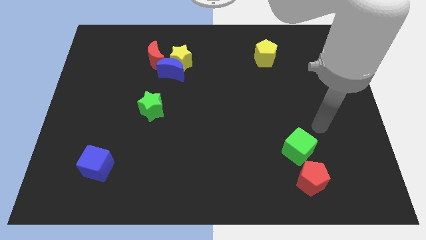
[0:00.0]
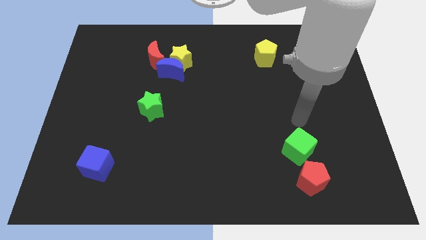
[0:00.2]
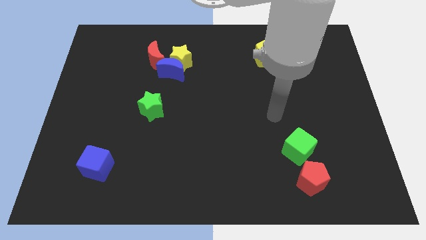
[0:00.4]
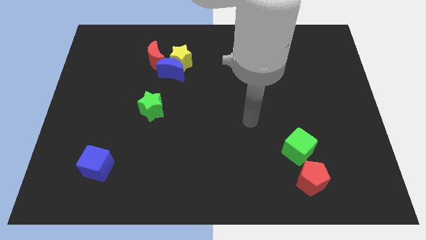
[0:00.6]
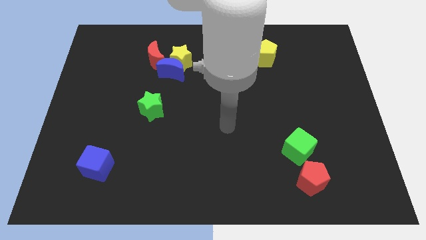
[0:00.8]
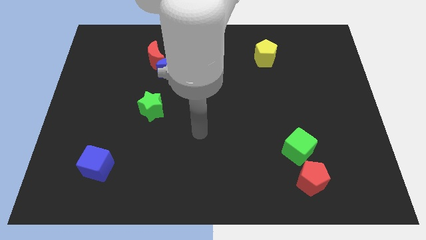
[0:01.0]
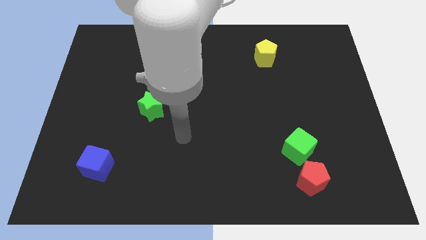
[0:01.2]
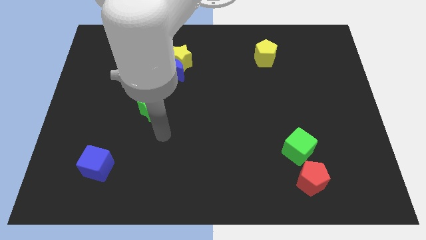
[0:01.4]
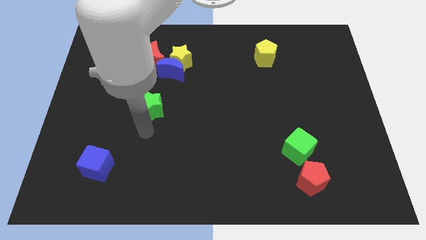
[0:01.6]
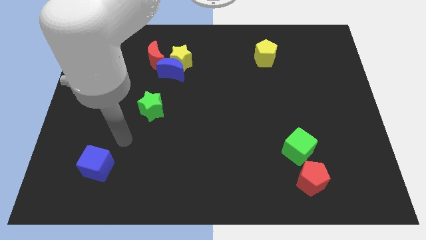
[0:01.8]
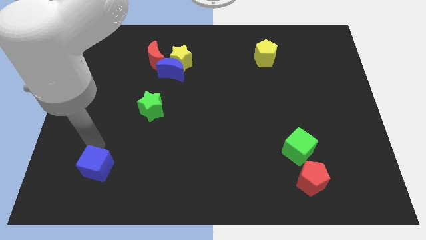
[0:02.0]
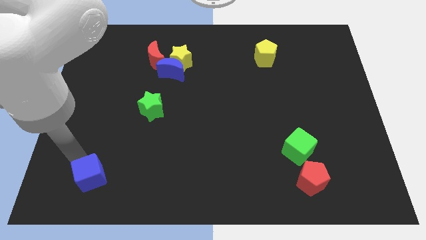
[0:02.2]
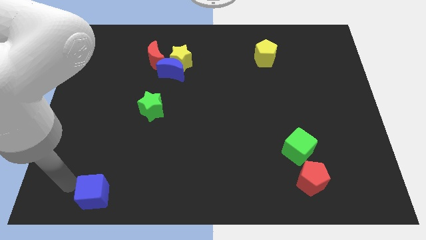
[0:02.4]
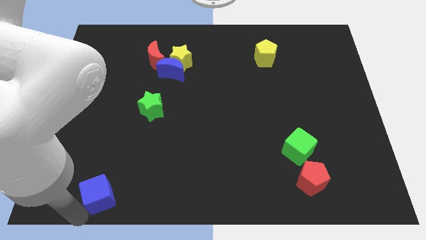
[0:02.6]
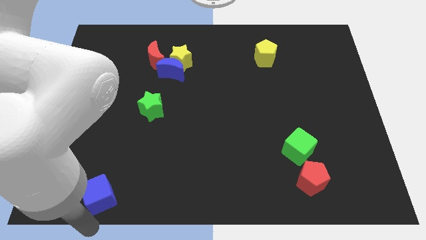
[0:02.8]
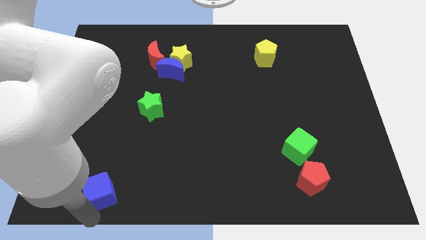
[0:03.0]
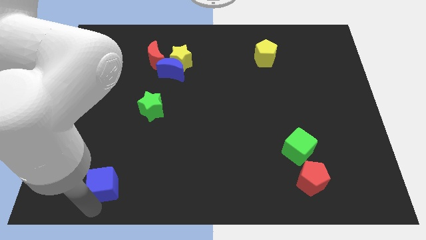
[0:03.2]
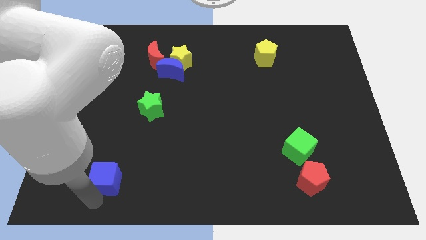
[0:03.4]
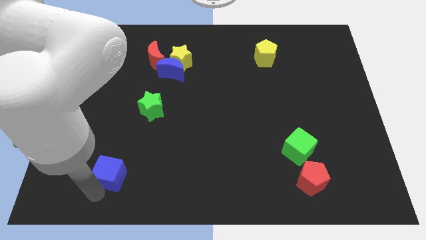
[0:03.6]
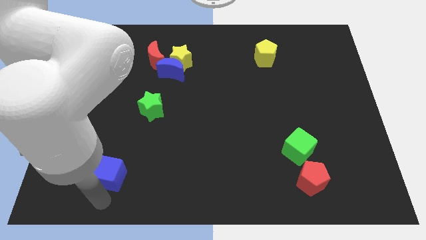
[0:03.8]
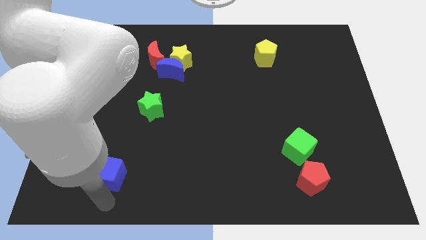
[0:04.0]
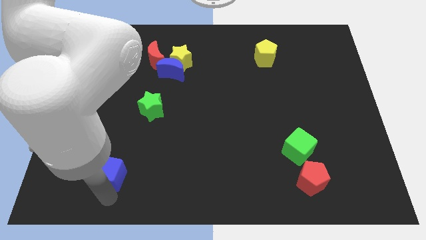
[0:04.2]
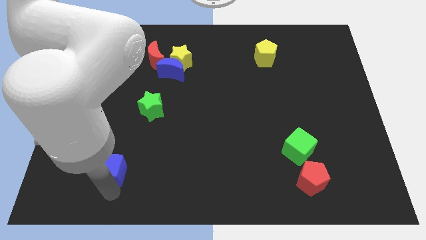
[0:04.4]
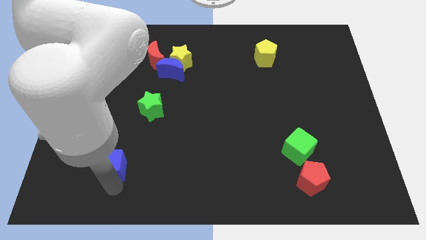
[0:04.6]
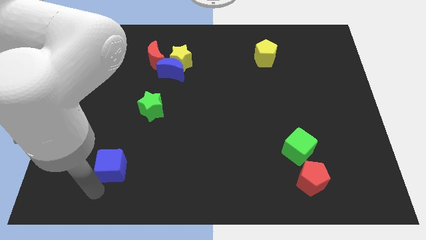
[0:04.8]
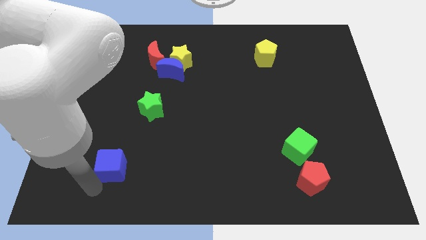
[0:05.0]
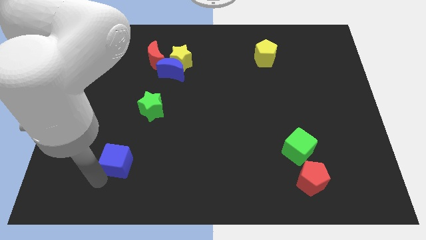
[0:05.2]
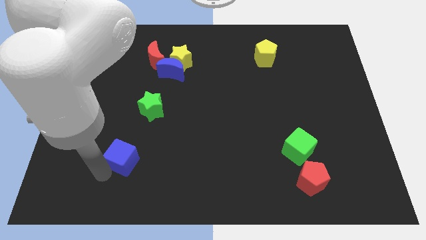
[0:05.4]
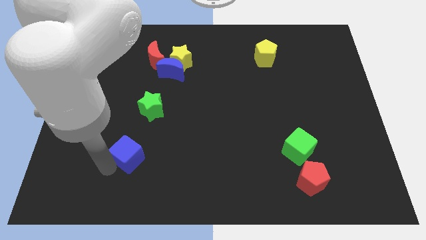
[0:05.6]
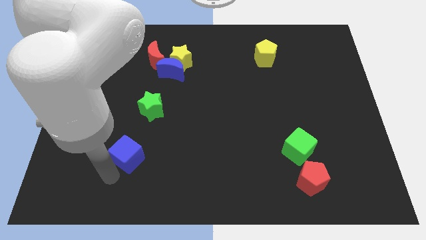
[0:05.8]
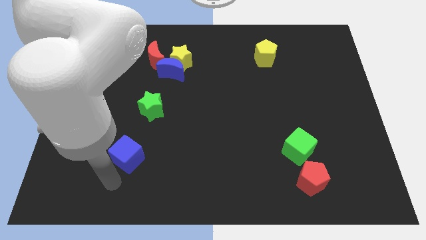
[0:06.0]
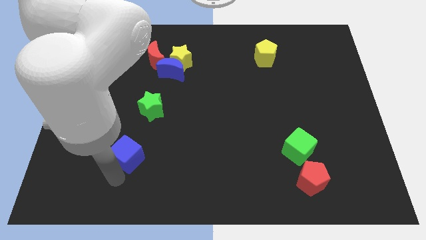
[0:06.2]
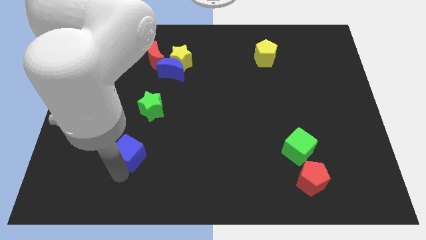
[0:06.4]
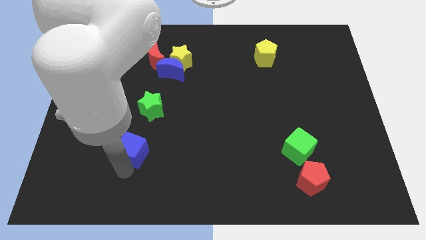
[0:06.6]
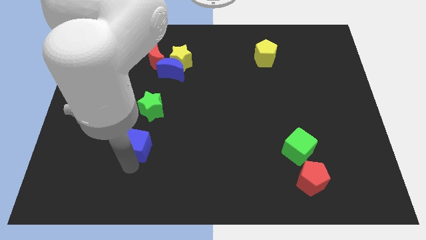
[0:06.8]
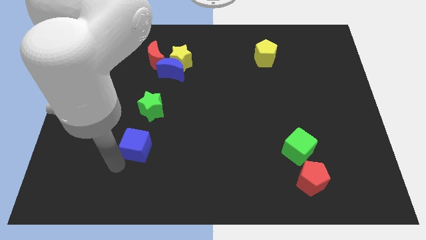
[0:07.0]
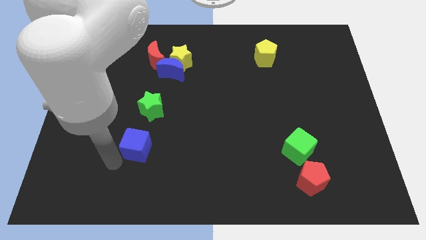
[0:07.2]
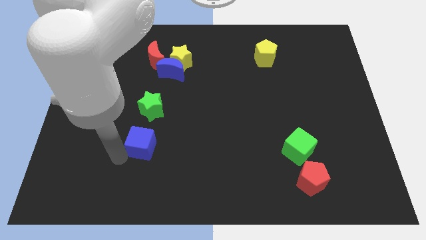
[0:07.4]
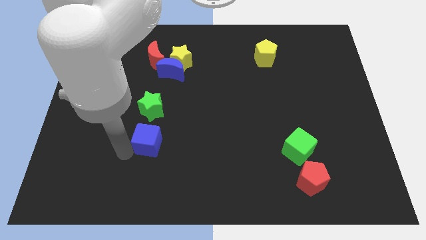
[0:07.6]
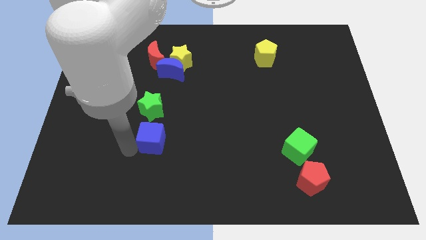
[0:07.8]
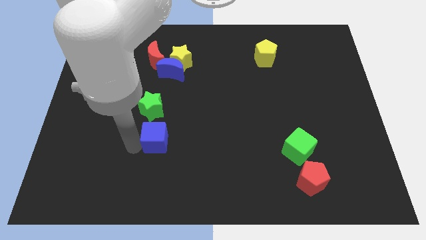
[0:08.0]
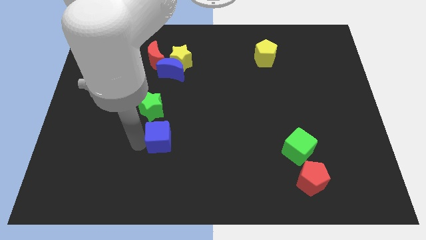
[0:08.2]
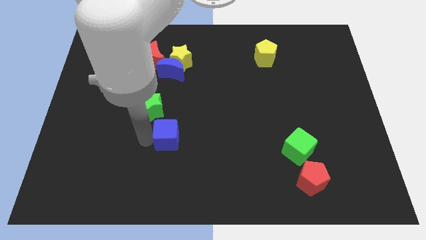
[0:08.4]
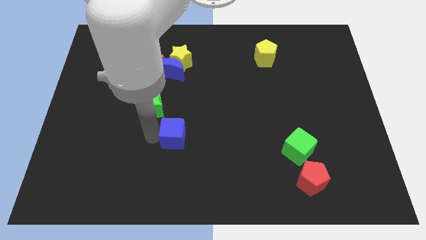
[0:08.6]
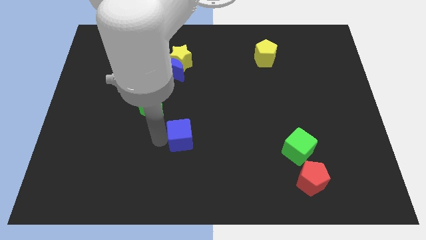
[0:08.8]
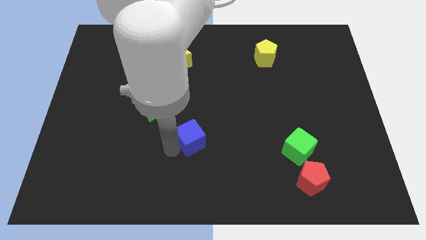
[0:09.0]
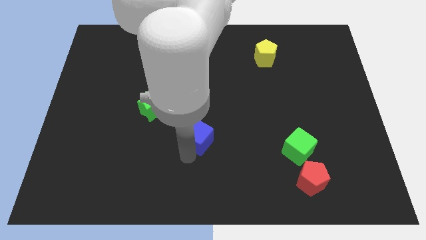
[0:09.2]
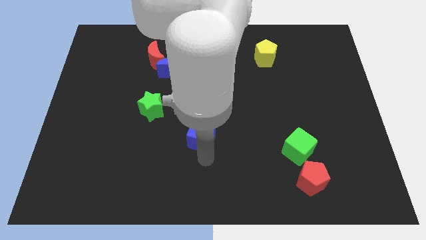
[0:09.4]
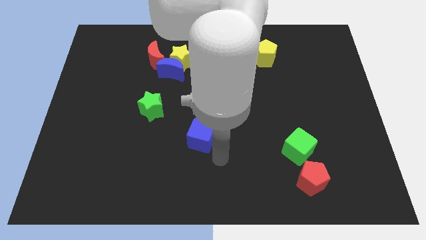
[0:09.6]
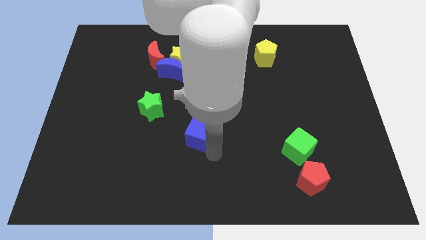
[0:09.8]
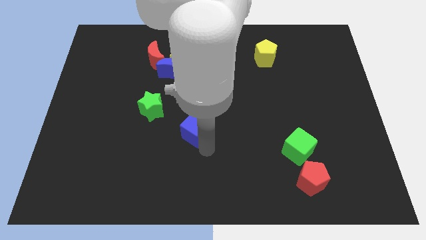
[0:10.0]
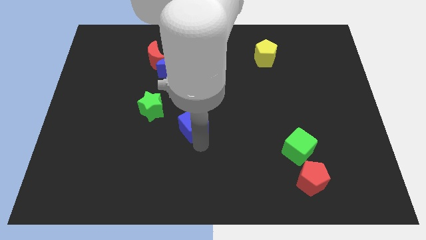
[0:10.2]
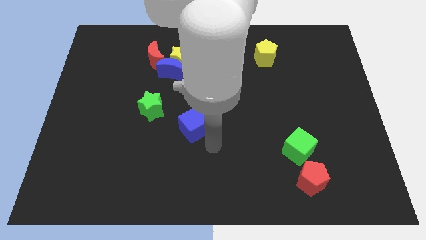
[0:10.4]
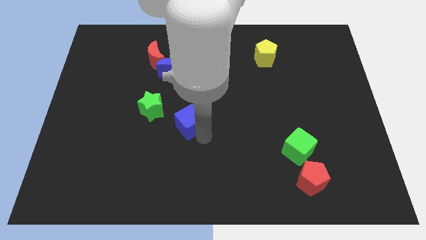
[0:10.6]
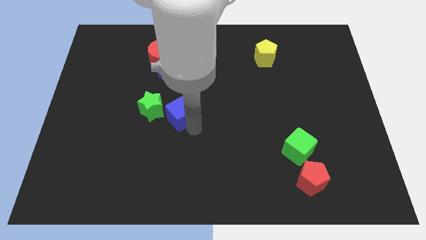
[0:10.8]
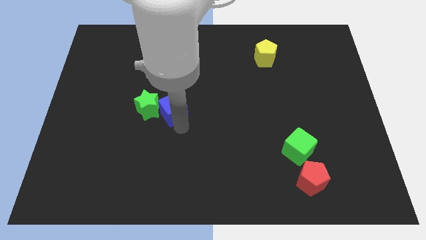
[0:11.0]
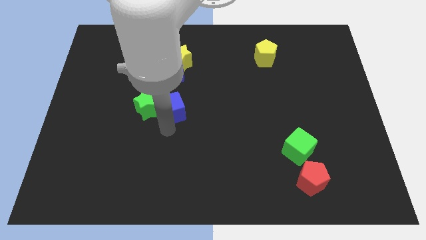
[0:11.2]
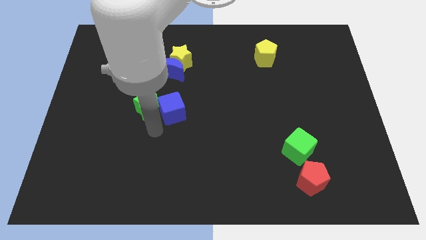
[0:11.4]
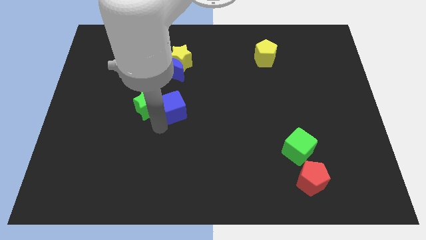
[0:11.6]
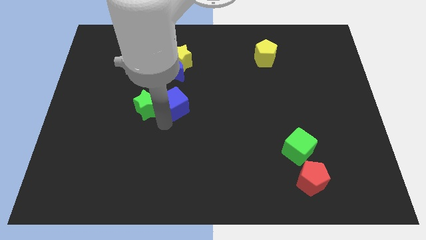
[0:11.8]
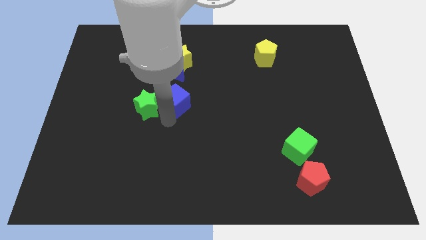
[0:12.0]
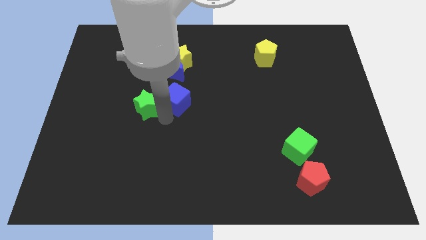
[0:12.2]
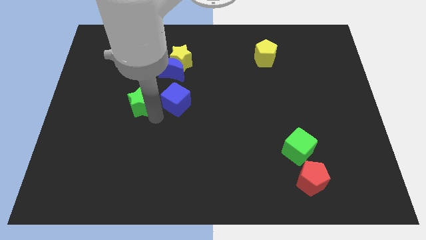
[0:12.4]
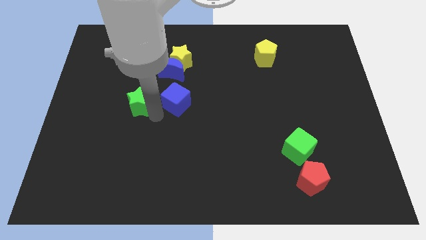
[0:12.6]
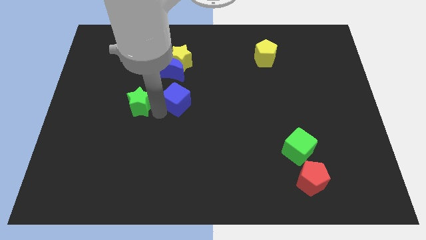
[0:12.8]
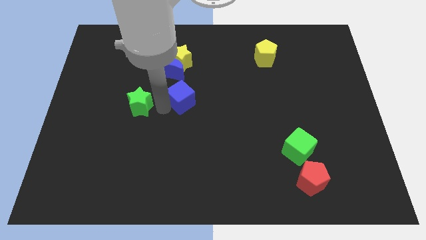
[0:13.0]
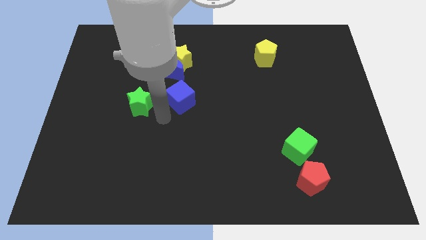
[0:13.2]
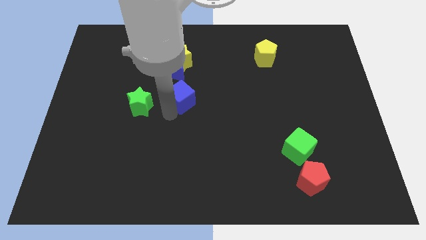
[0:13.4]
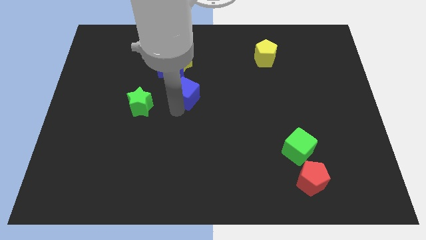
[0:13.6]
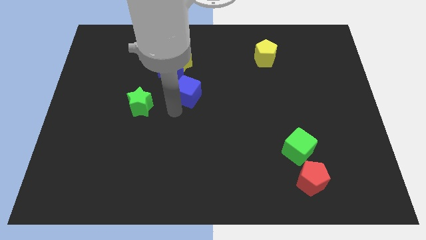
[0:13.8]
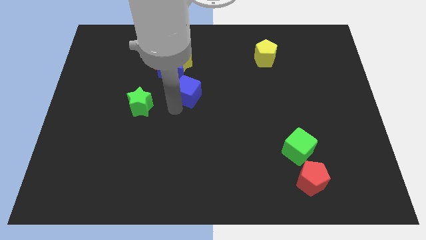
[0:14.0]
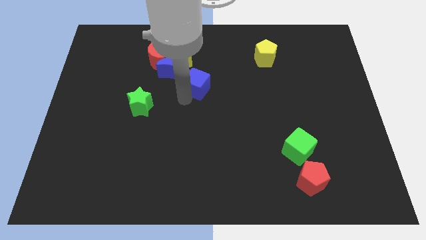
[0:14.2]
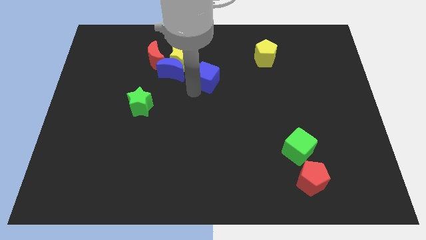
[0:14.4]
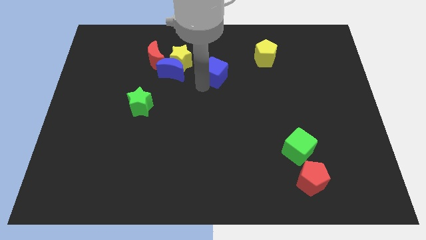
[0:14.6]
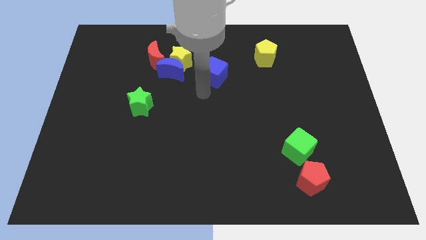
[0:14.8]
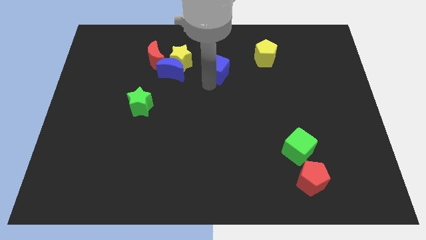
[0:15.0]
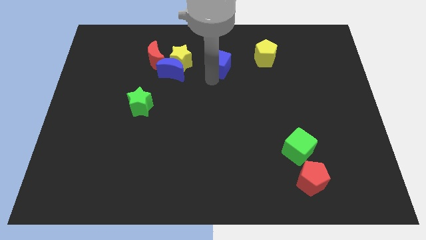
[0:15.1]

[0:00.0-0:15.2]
move the blue cube to the left of the yellow pentagon
